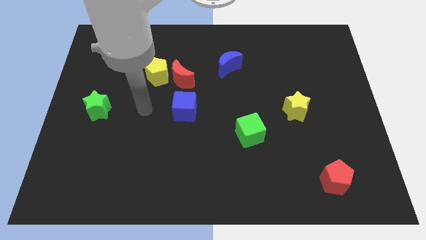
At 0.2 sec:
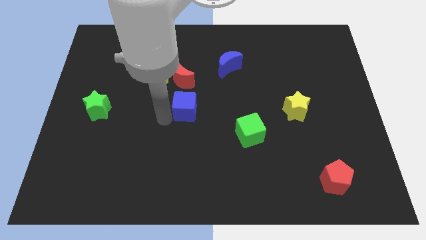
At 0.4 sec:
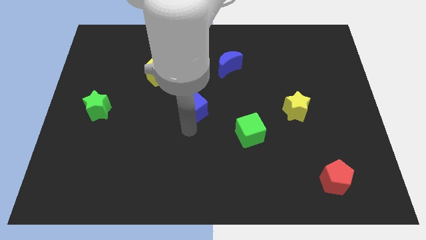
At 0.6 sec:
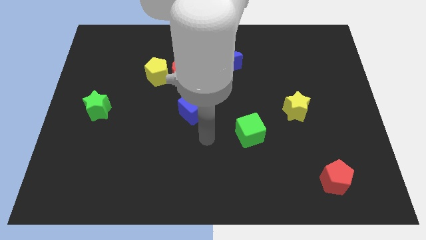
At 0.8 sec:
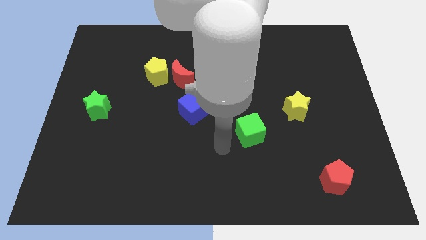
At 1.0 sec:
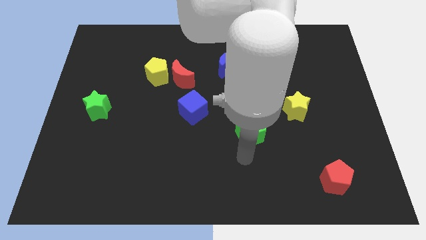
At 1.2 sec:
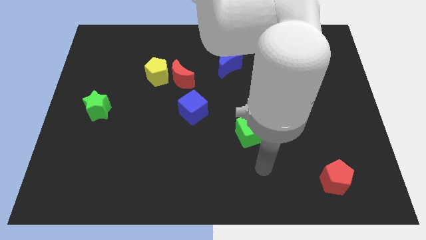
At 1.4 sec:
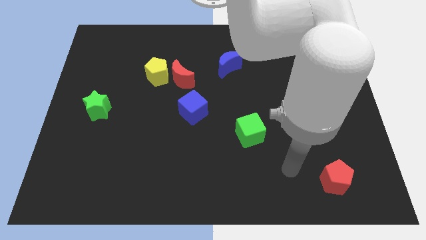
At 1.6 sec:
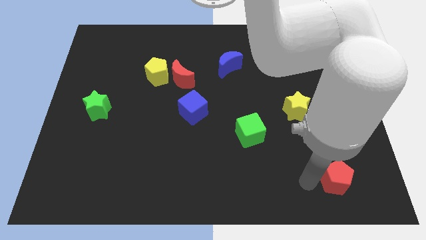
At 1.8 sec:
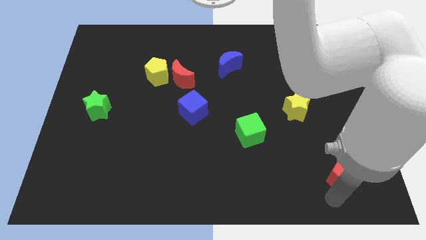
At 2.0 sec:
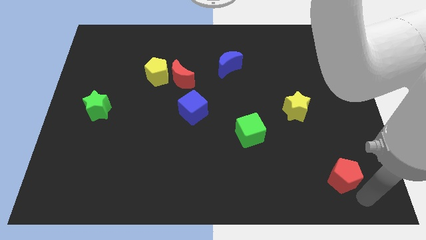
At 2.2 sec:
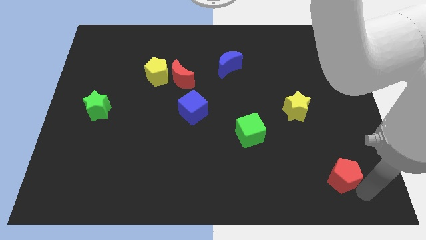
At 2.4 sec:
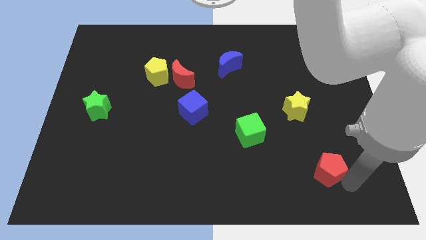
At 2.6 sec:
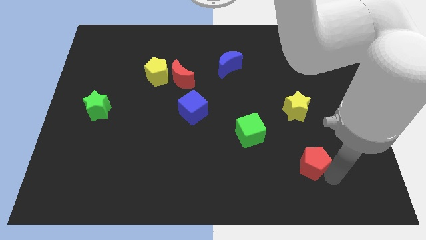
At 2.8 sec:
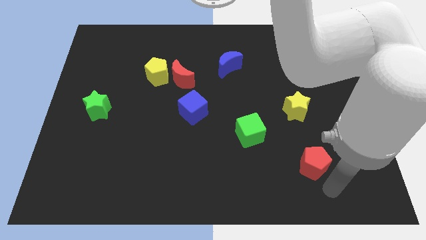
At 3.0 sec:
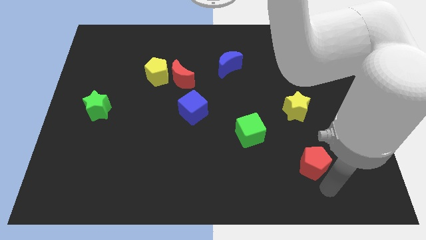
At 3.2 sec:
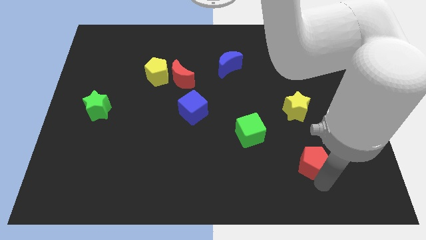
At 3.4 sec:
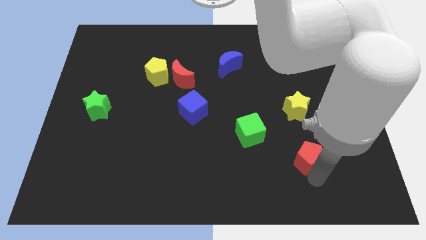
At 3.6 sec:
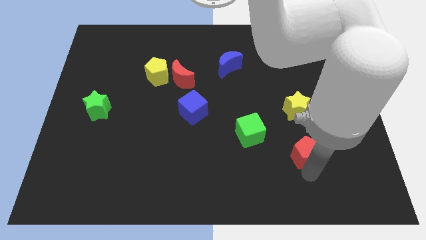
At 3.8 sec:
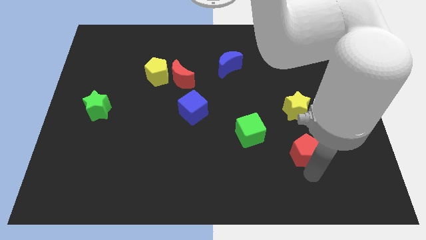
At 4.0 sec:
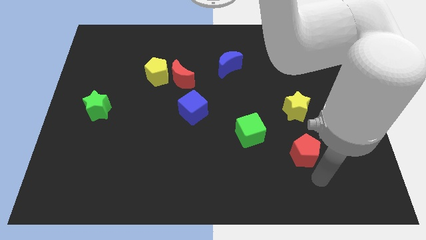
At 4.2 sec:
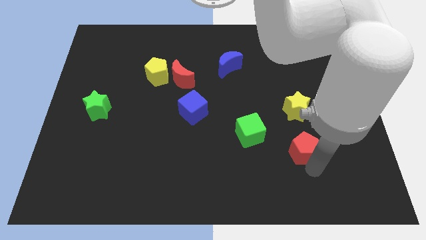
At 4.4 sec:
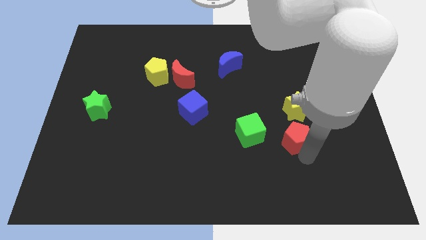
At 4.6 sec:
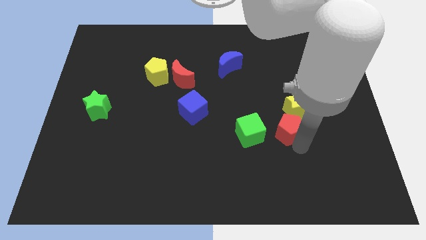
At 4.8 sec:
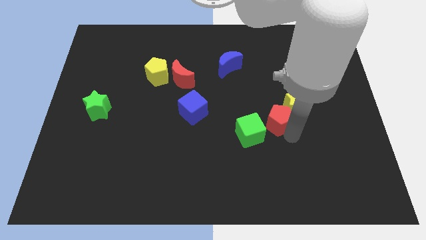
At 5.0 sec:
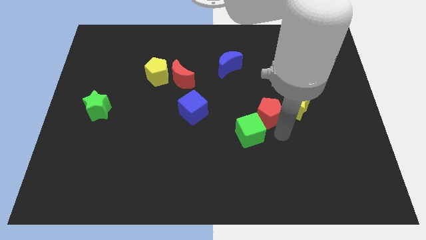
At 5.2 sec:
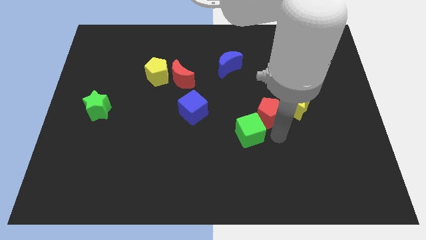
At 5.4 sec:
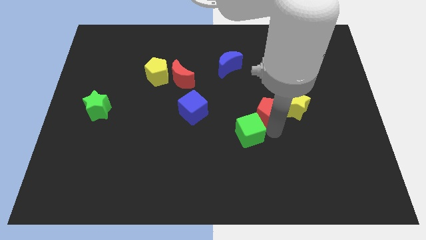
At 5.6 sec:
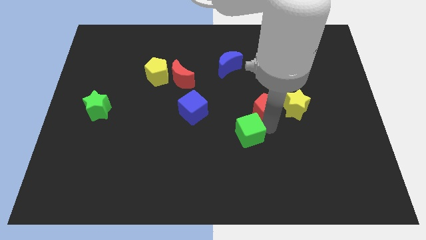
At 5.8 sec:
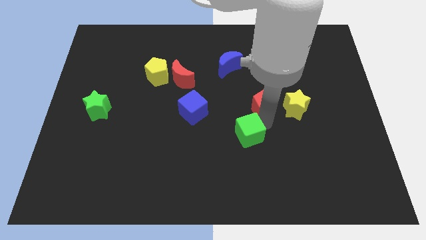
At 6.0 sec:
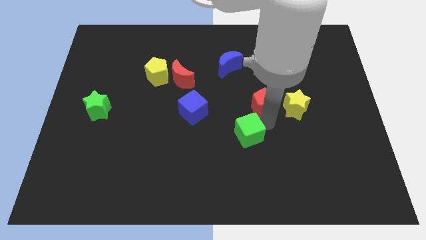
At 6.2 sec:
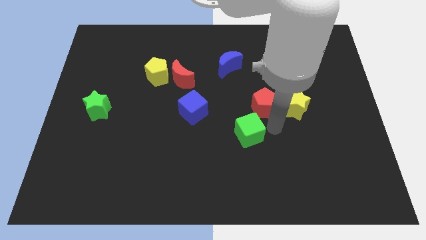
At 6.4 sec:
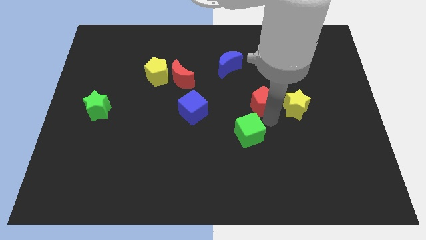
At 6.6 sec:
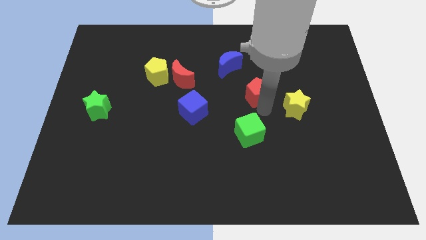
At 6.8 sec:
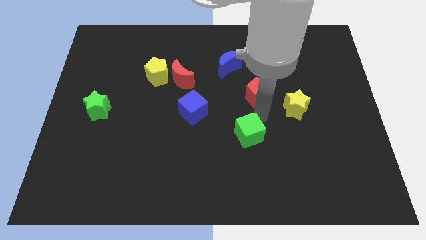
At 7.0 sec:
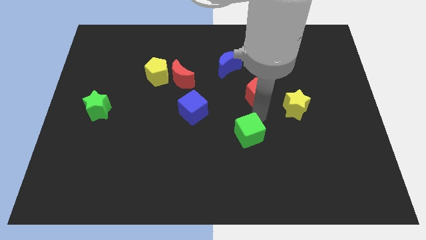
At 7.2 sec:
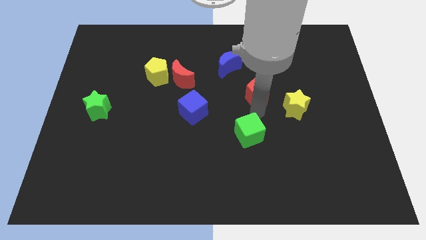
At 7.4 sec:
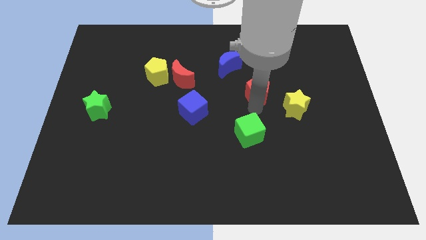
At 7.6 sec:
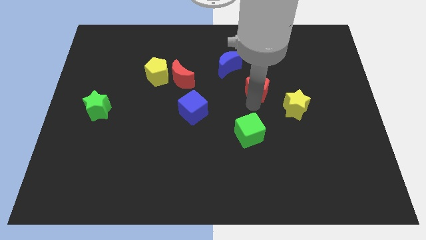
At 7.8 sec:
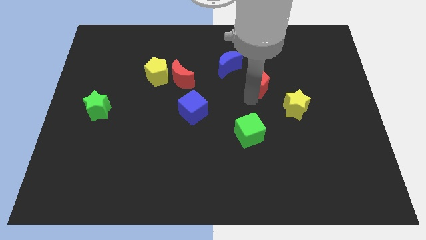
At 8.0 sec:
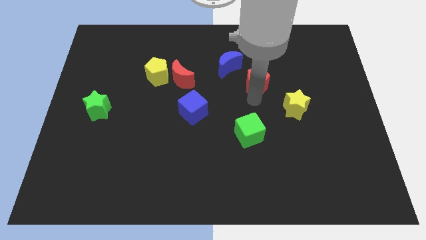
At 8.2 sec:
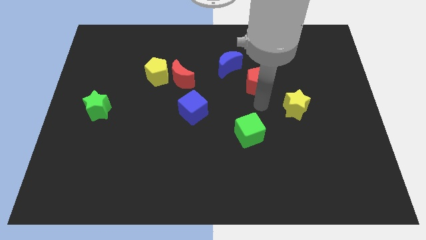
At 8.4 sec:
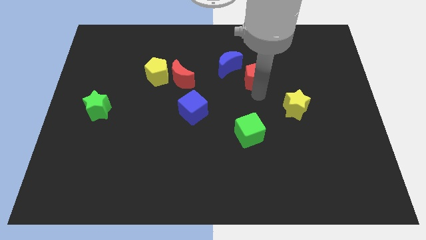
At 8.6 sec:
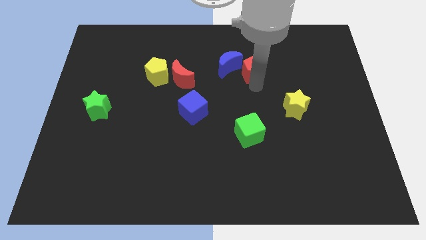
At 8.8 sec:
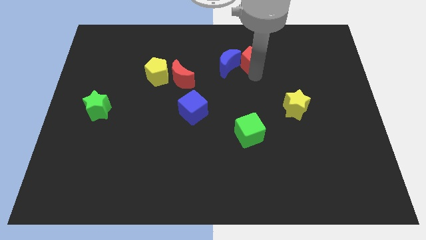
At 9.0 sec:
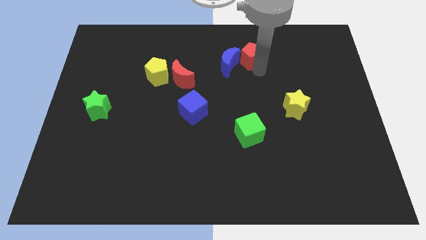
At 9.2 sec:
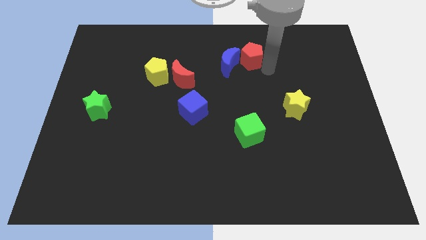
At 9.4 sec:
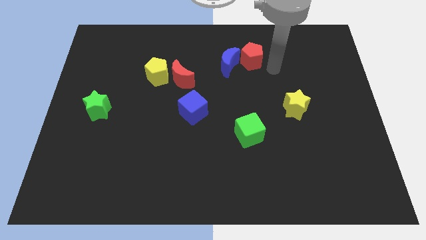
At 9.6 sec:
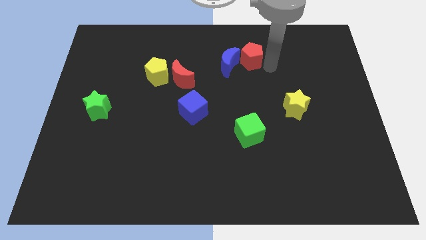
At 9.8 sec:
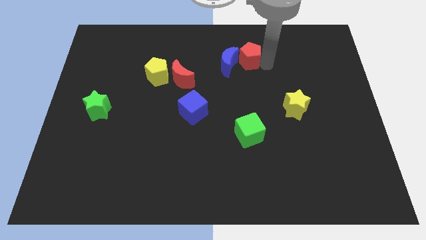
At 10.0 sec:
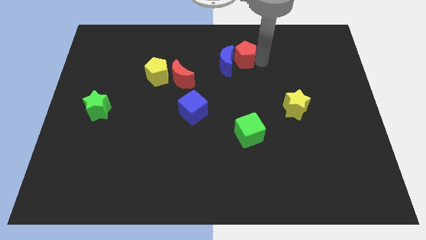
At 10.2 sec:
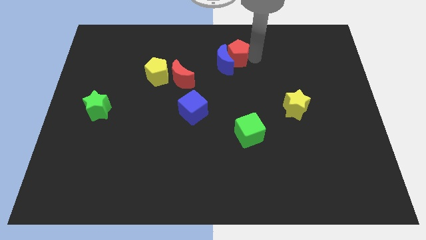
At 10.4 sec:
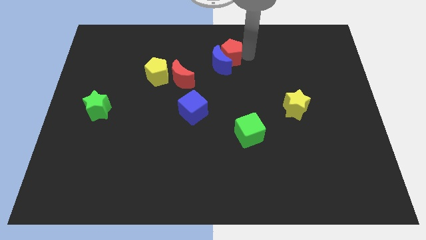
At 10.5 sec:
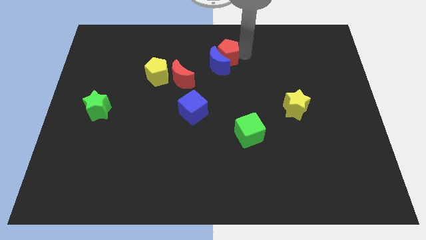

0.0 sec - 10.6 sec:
put the red pentagon to the top side

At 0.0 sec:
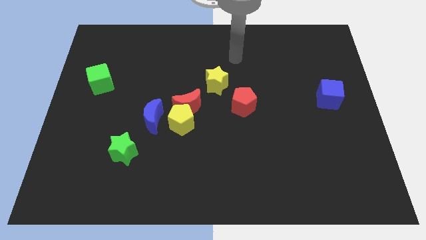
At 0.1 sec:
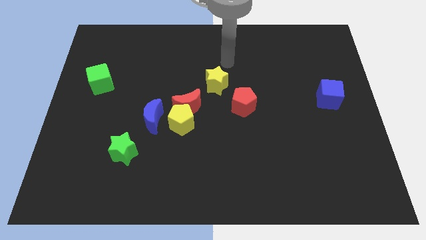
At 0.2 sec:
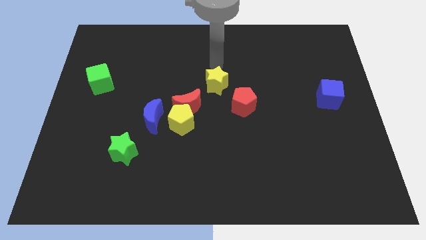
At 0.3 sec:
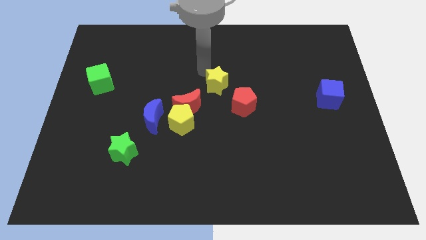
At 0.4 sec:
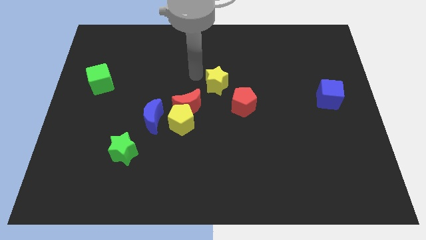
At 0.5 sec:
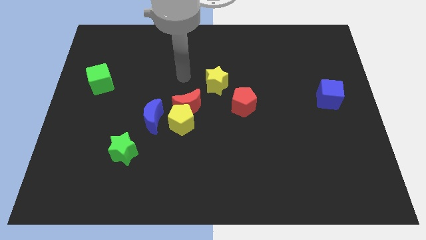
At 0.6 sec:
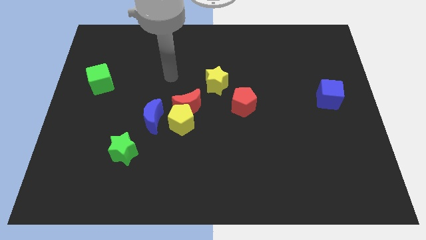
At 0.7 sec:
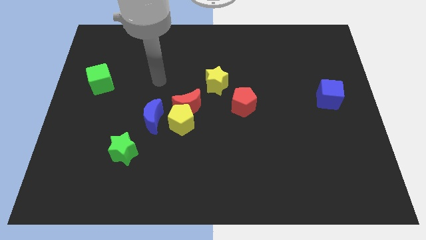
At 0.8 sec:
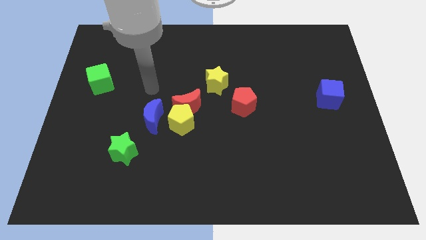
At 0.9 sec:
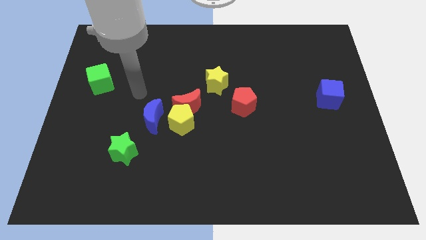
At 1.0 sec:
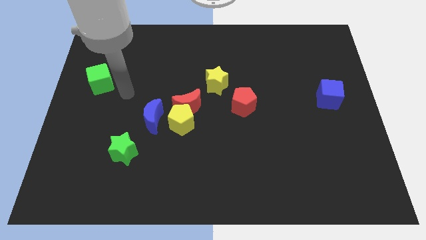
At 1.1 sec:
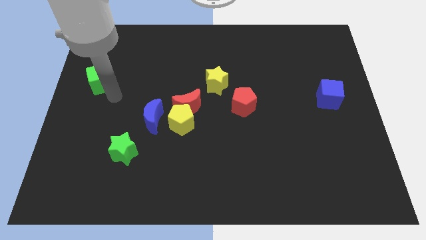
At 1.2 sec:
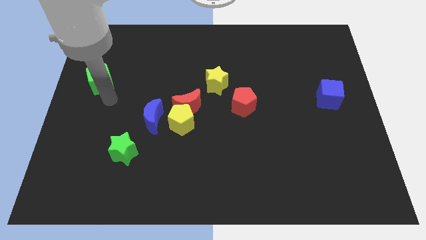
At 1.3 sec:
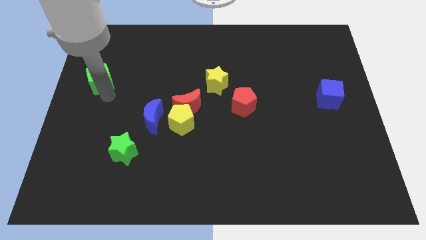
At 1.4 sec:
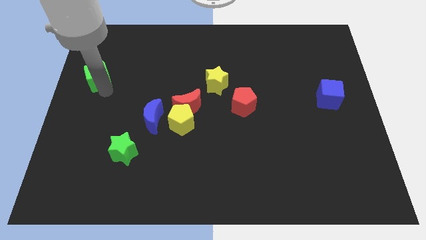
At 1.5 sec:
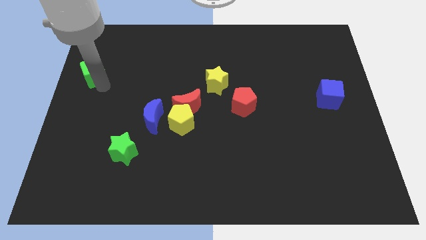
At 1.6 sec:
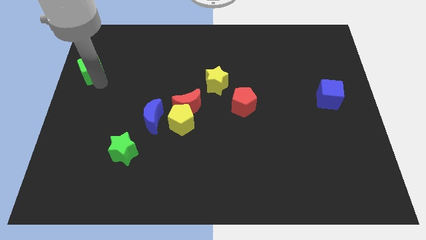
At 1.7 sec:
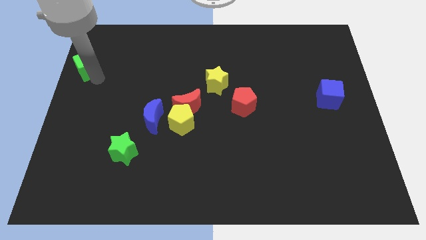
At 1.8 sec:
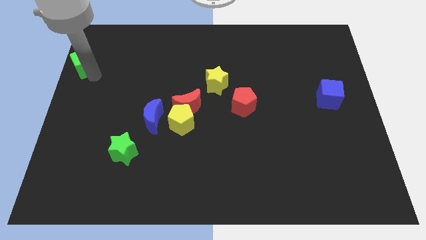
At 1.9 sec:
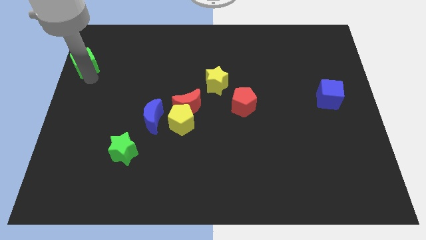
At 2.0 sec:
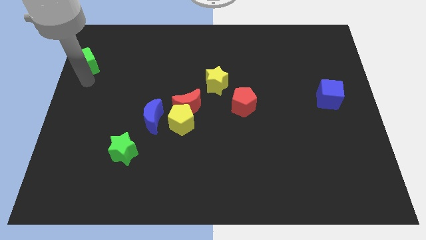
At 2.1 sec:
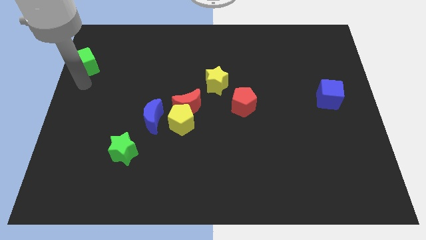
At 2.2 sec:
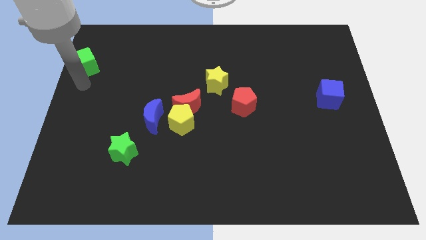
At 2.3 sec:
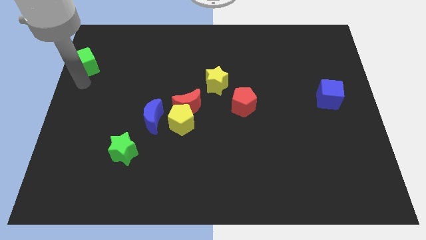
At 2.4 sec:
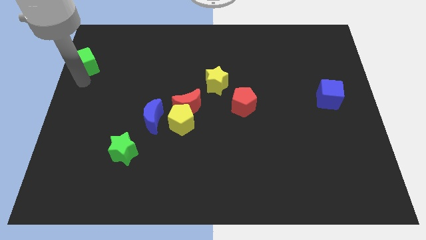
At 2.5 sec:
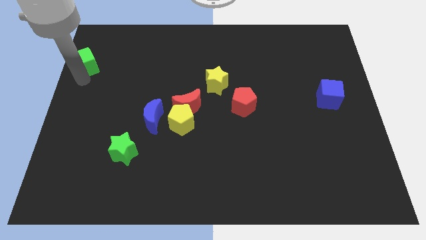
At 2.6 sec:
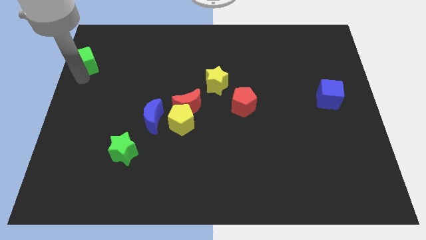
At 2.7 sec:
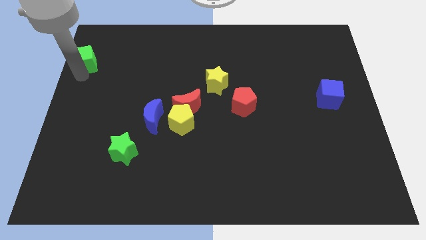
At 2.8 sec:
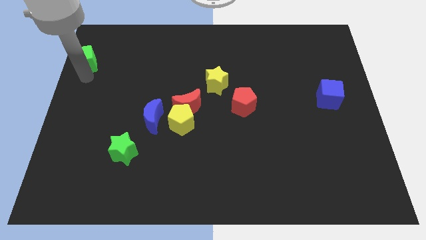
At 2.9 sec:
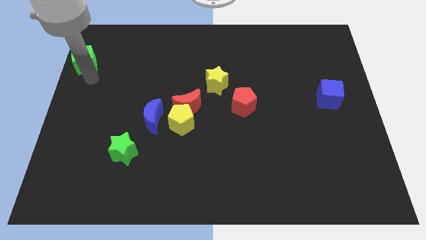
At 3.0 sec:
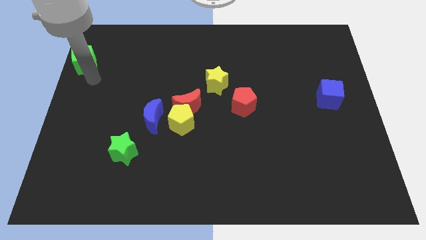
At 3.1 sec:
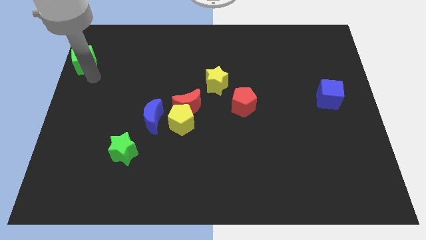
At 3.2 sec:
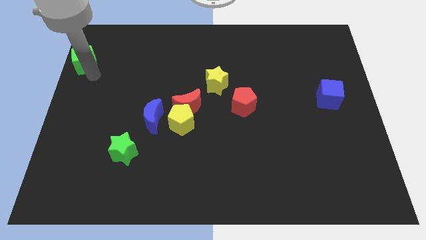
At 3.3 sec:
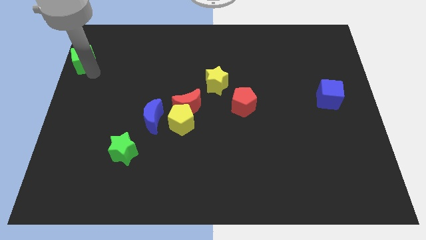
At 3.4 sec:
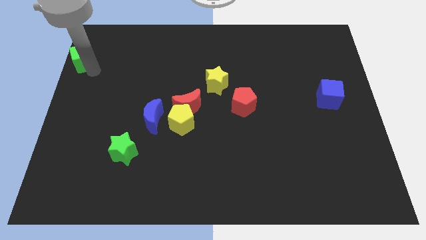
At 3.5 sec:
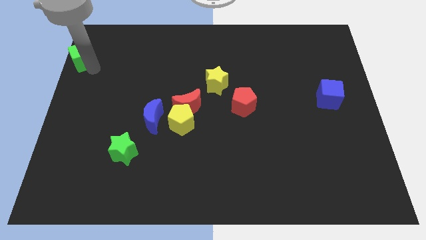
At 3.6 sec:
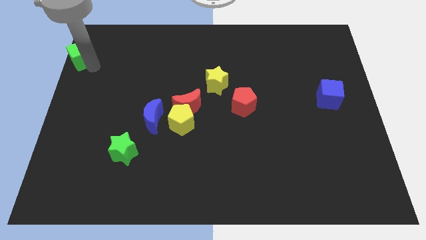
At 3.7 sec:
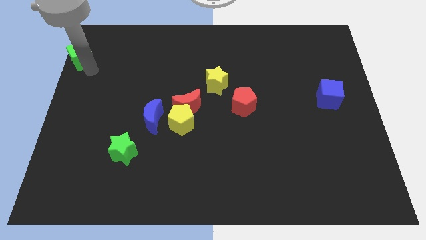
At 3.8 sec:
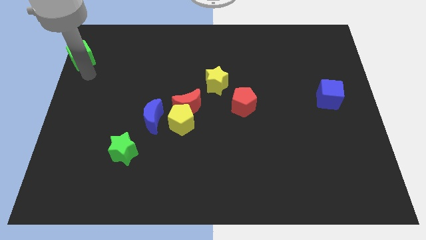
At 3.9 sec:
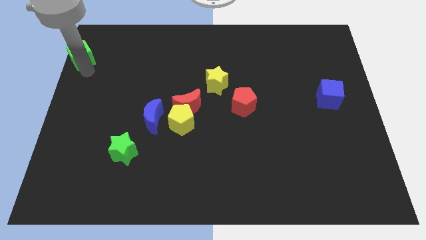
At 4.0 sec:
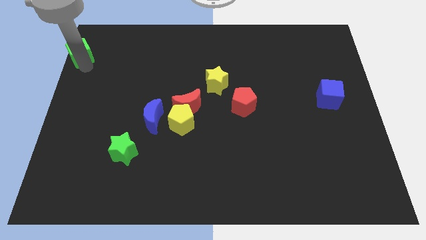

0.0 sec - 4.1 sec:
slide the green cube to the top left of the board
